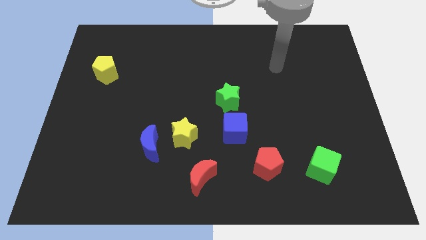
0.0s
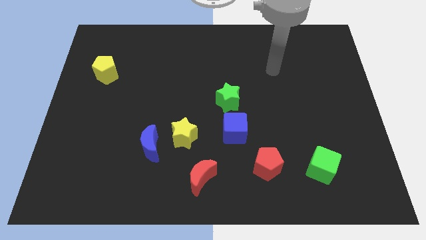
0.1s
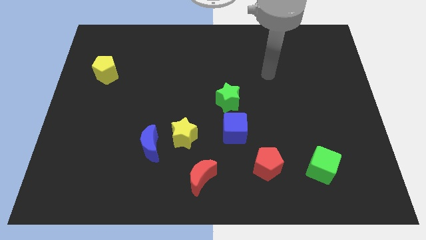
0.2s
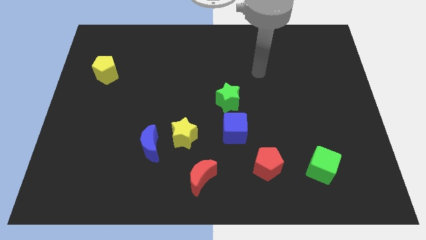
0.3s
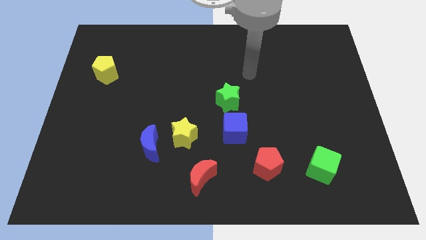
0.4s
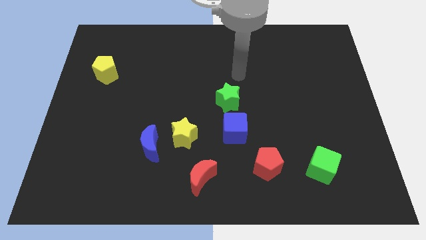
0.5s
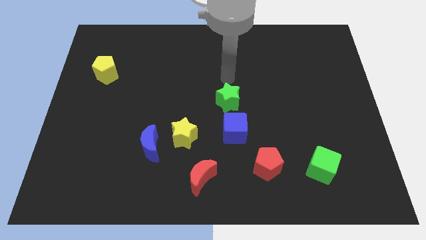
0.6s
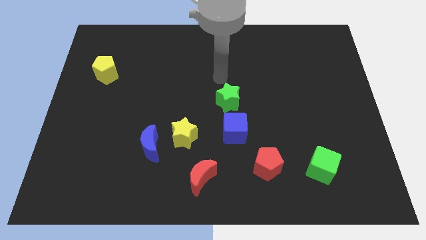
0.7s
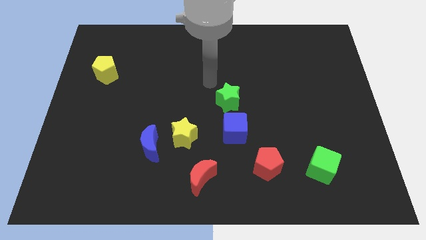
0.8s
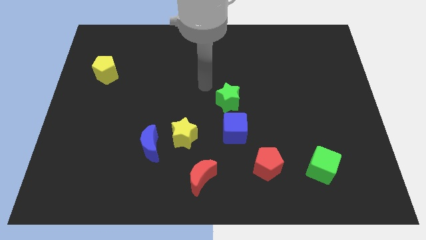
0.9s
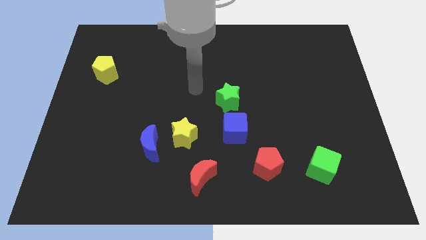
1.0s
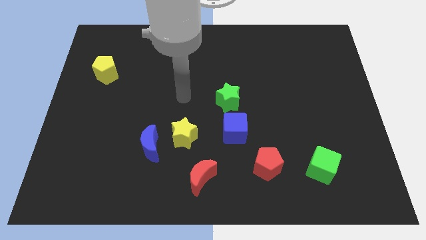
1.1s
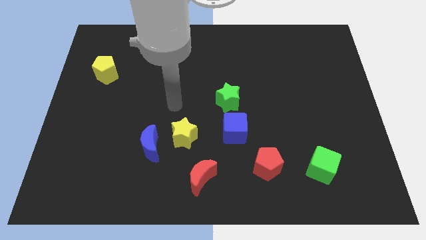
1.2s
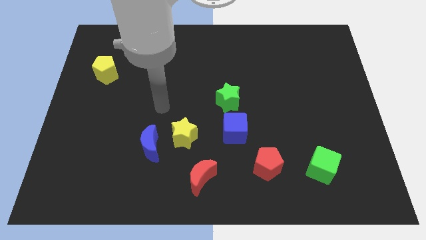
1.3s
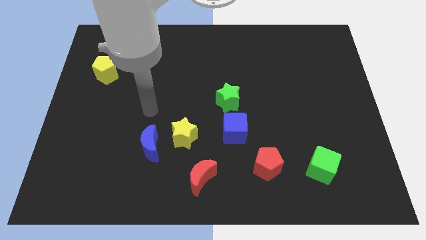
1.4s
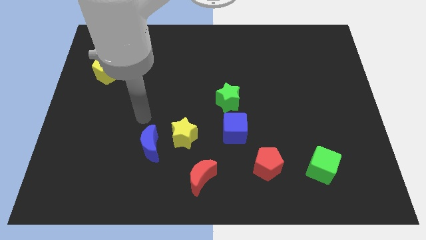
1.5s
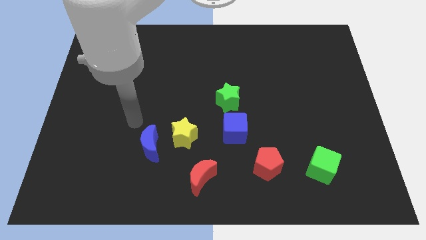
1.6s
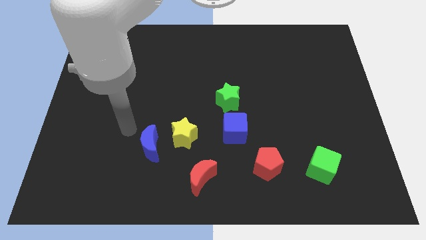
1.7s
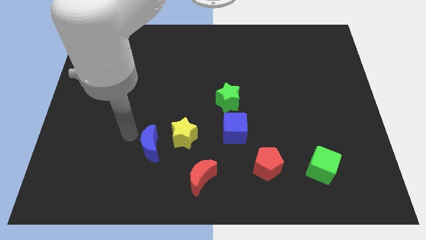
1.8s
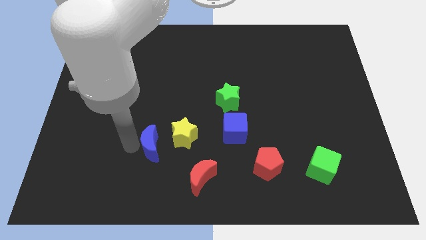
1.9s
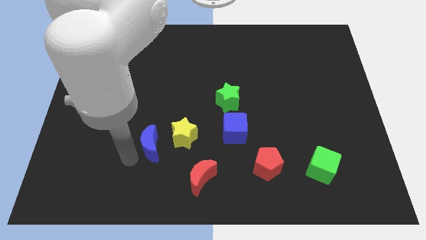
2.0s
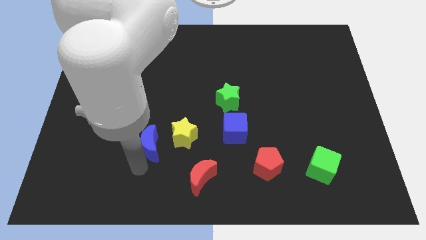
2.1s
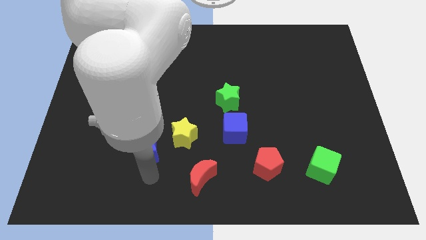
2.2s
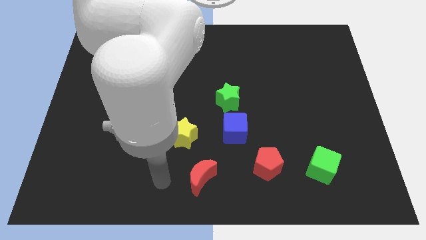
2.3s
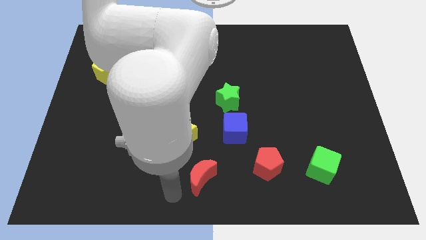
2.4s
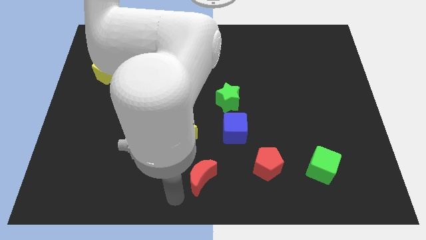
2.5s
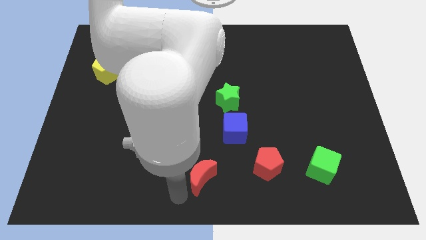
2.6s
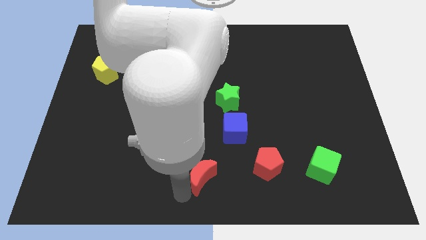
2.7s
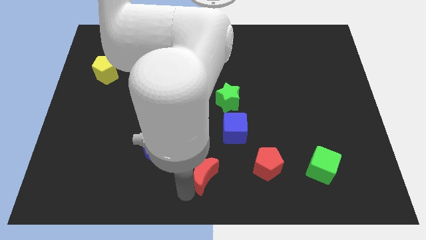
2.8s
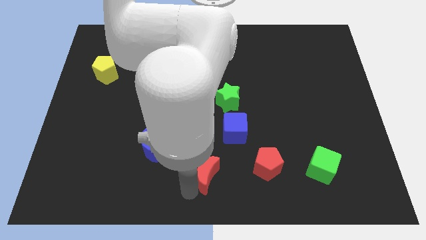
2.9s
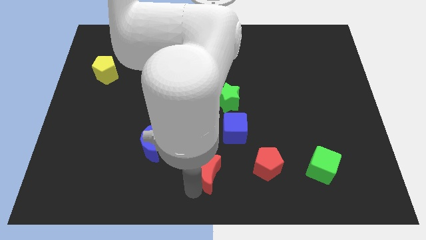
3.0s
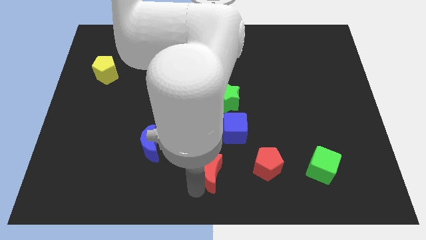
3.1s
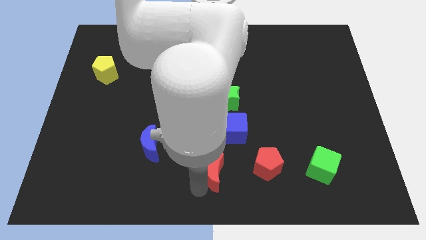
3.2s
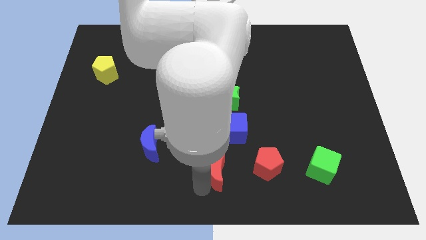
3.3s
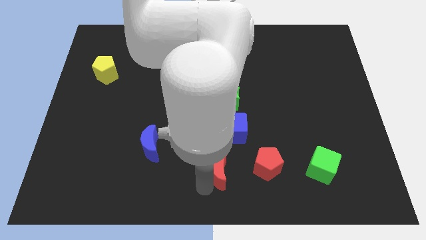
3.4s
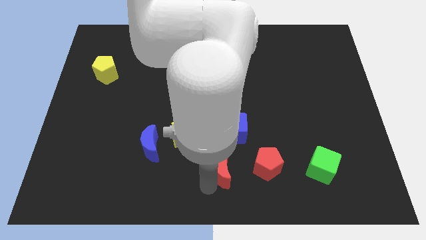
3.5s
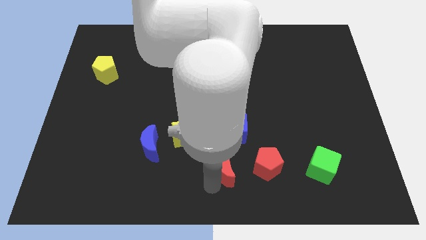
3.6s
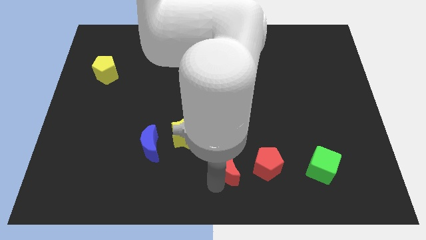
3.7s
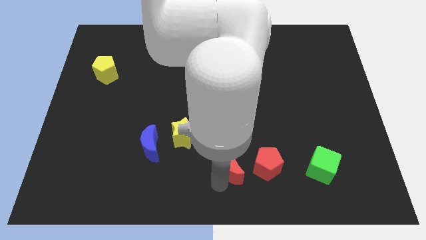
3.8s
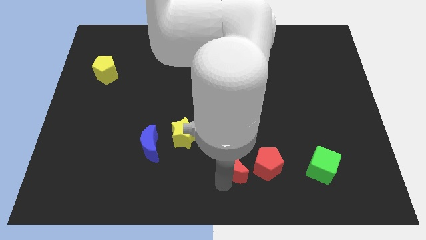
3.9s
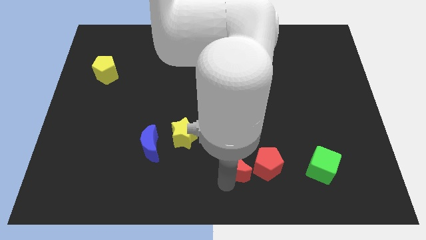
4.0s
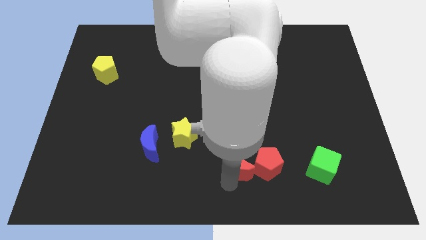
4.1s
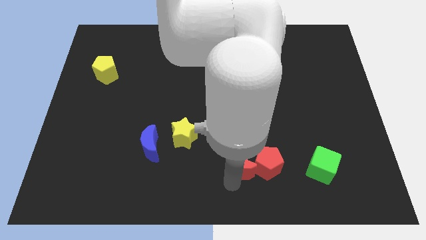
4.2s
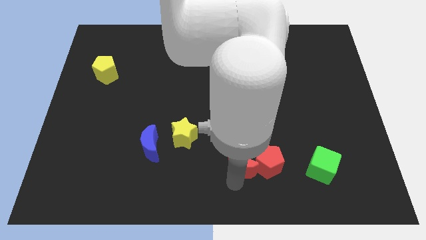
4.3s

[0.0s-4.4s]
push the red moon a bit diagonally up and to the right

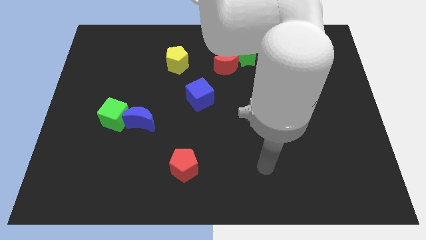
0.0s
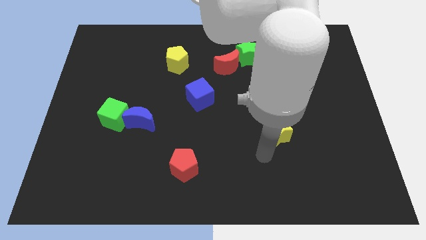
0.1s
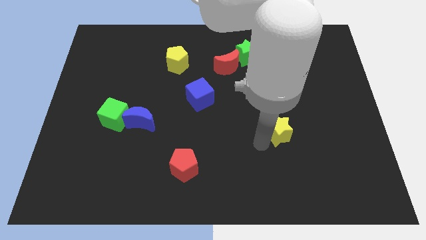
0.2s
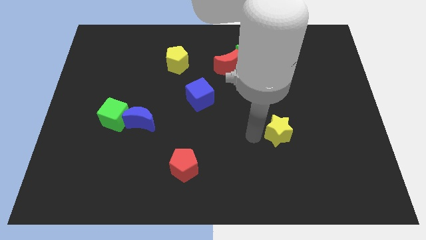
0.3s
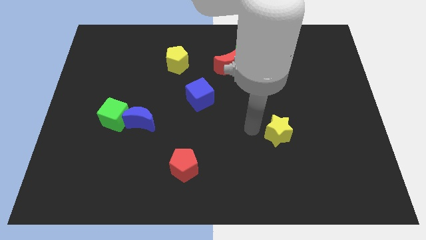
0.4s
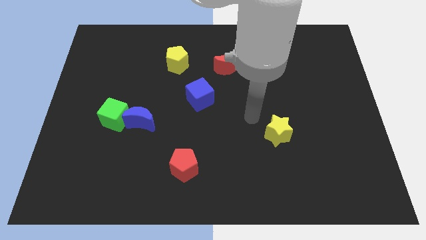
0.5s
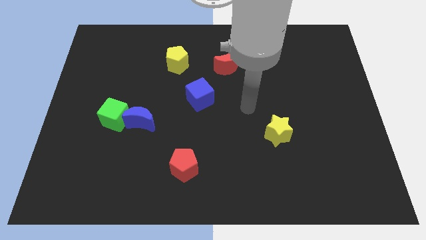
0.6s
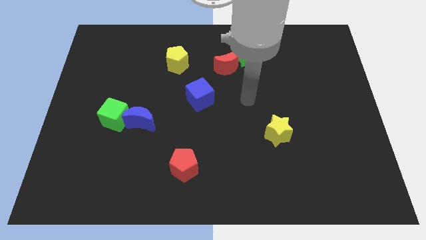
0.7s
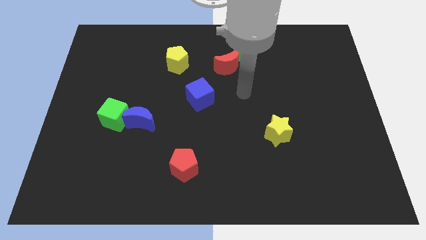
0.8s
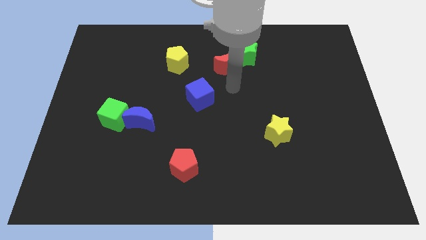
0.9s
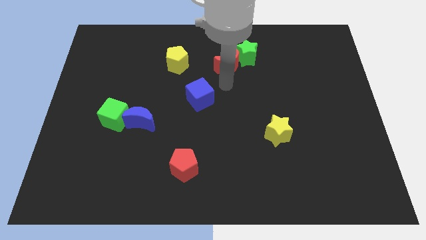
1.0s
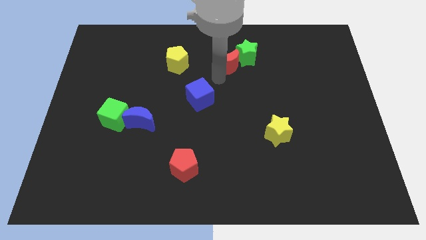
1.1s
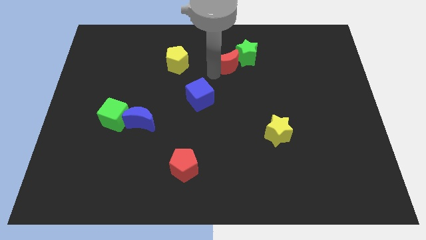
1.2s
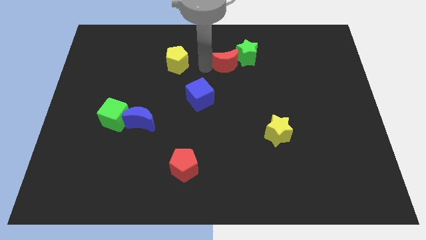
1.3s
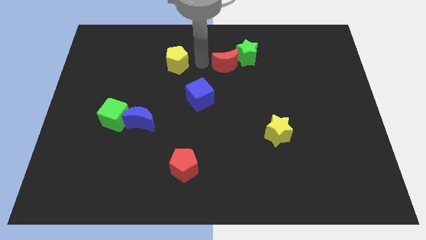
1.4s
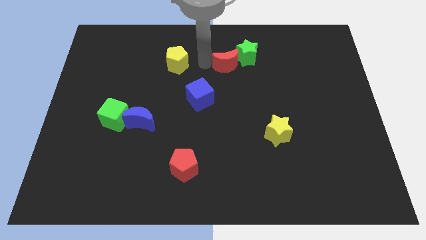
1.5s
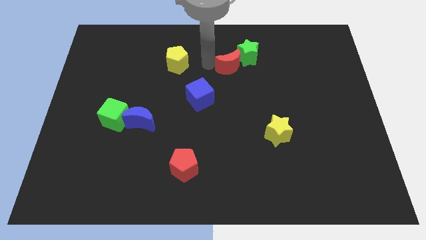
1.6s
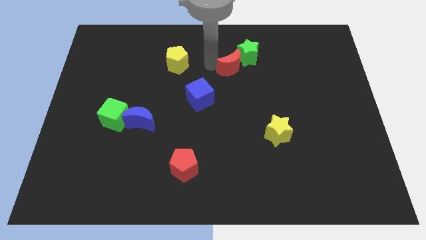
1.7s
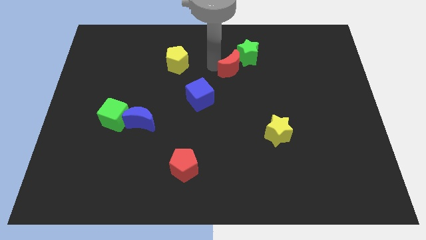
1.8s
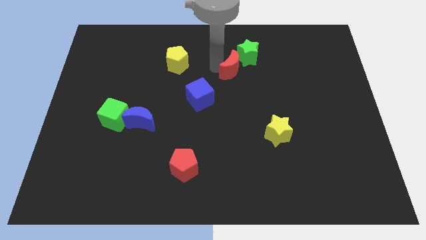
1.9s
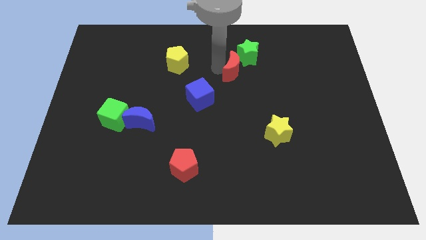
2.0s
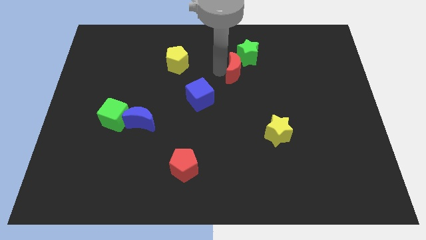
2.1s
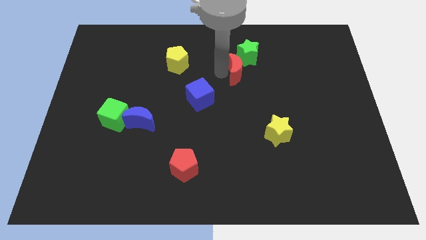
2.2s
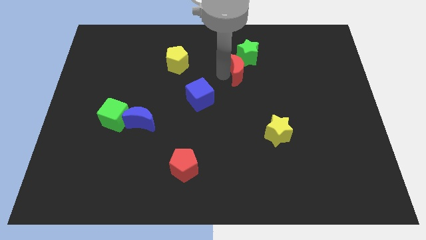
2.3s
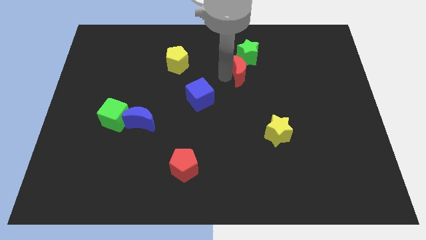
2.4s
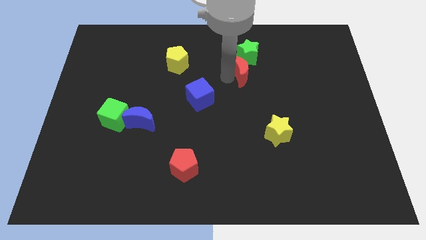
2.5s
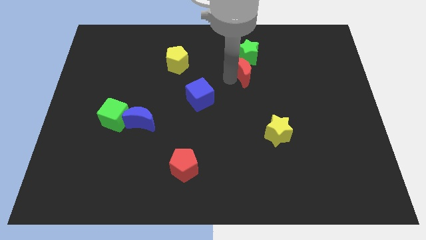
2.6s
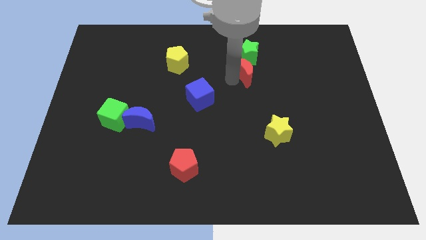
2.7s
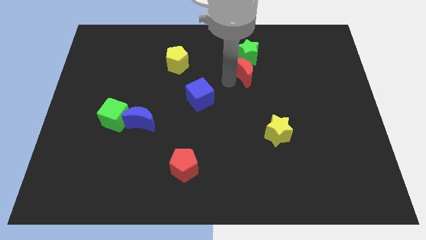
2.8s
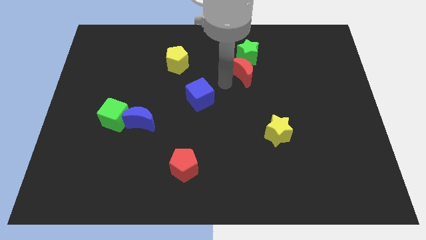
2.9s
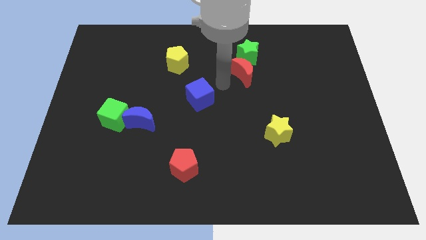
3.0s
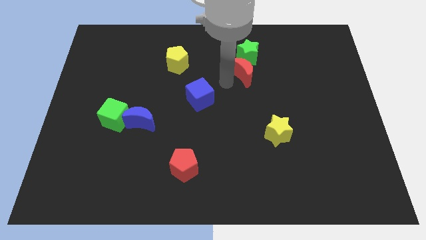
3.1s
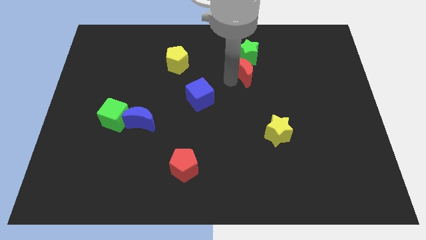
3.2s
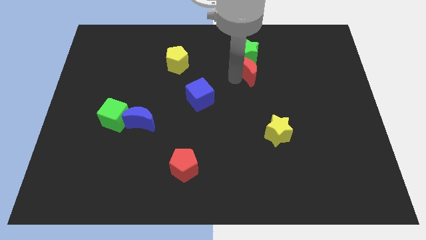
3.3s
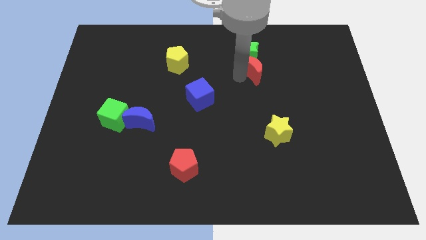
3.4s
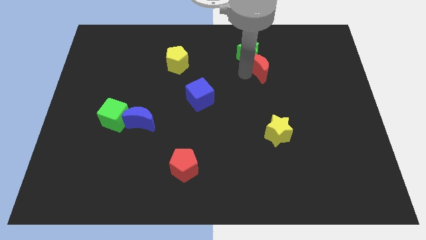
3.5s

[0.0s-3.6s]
move the red moon a bit to the right

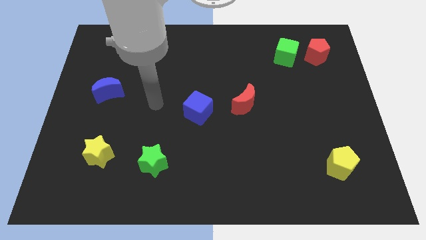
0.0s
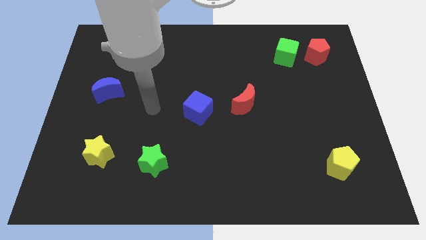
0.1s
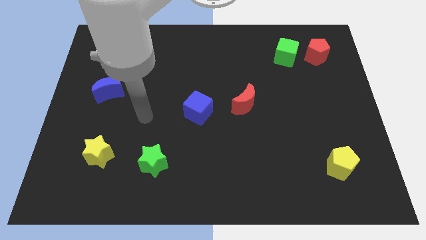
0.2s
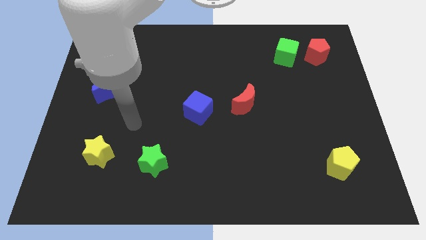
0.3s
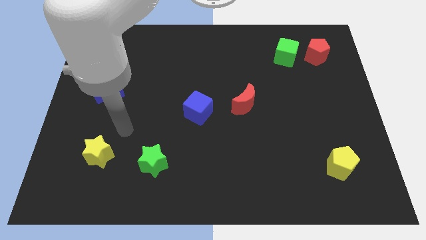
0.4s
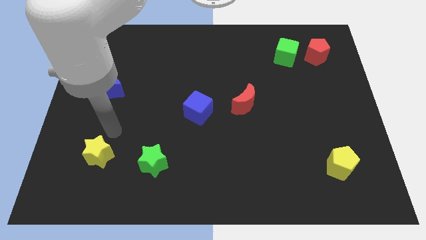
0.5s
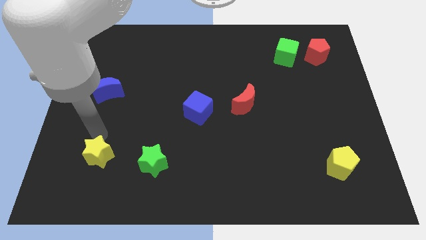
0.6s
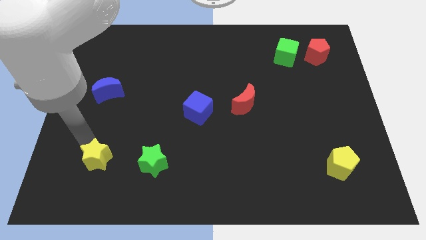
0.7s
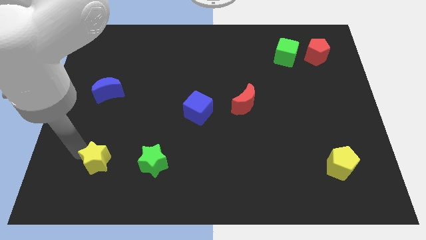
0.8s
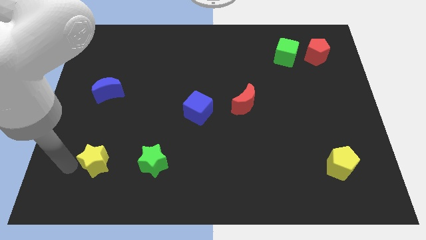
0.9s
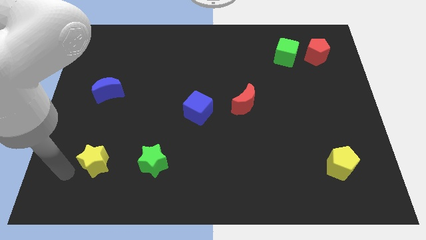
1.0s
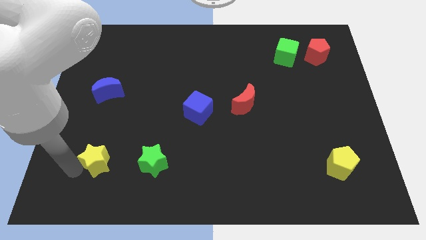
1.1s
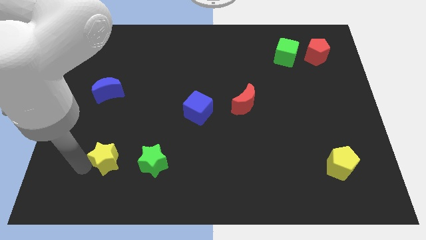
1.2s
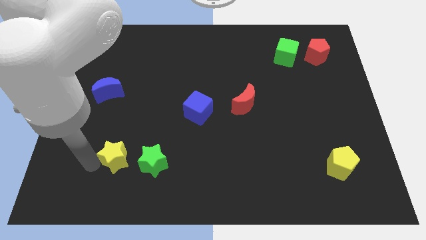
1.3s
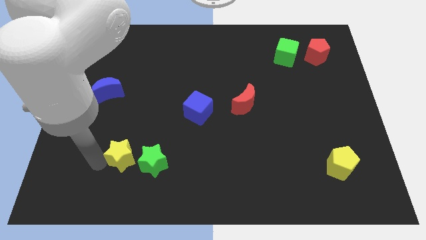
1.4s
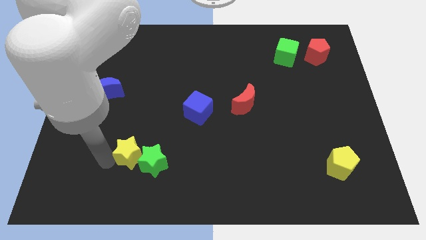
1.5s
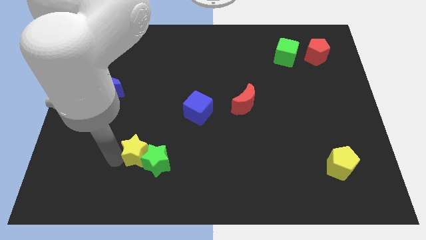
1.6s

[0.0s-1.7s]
slide the yellow star to the right a little bit
